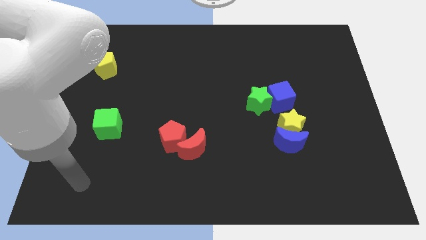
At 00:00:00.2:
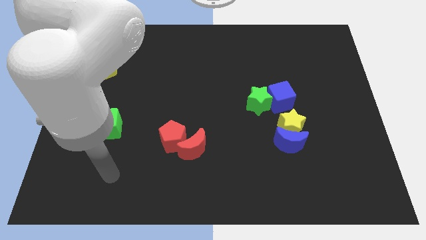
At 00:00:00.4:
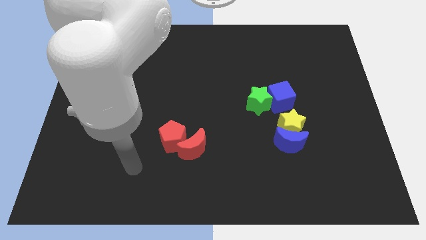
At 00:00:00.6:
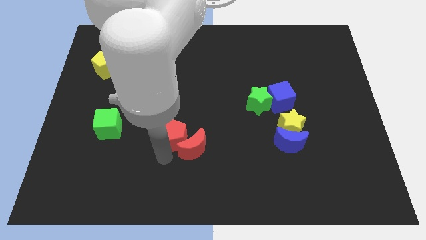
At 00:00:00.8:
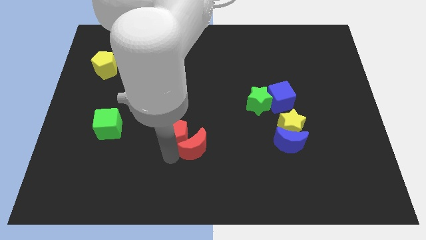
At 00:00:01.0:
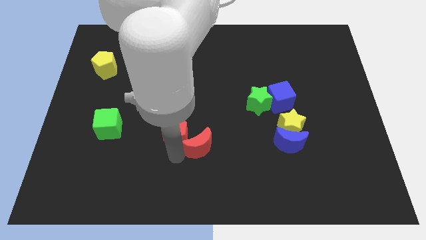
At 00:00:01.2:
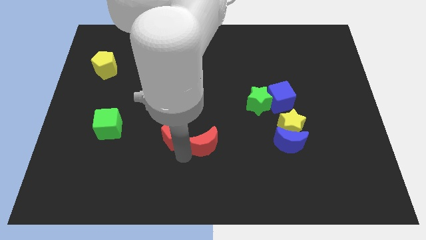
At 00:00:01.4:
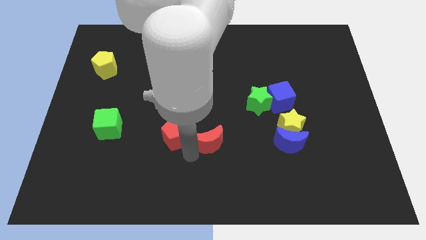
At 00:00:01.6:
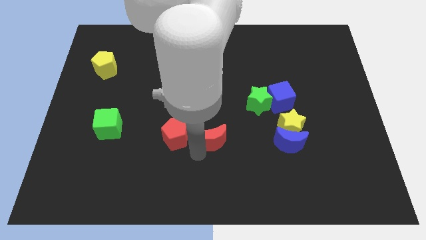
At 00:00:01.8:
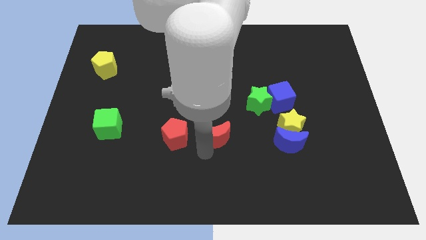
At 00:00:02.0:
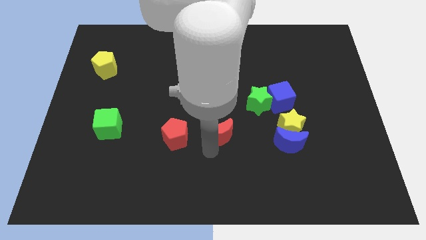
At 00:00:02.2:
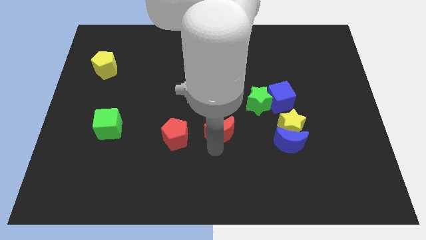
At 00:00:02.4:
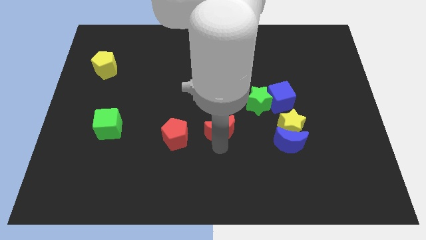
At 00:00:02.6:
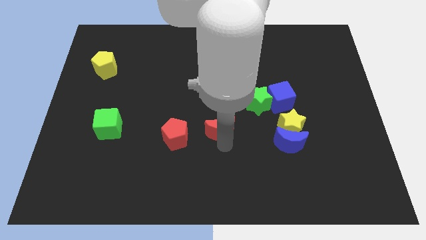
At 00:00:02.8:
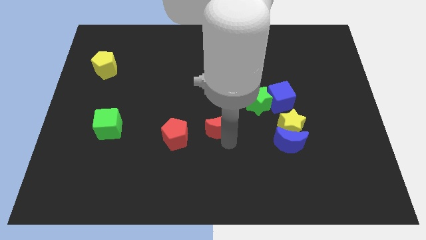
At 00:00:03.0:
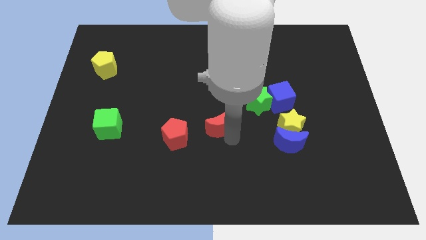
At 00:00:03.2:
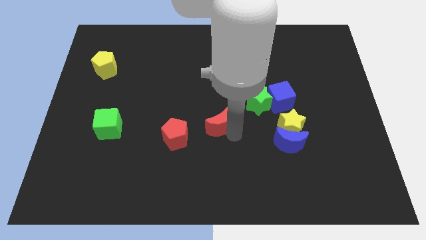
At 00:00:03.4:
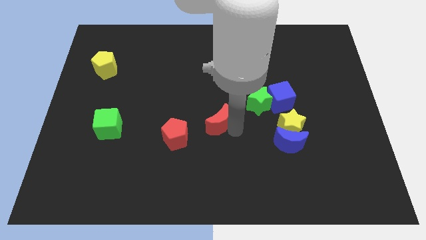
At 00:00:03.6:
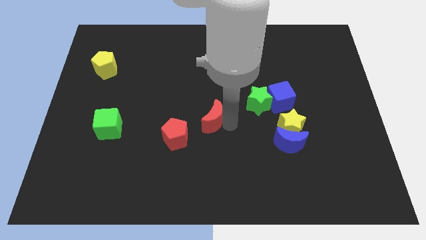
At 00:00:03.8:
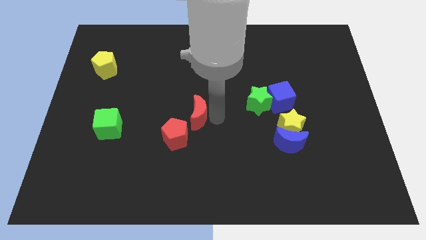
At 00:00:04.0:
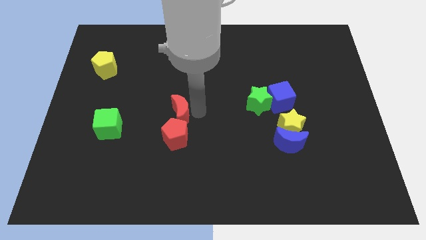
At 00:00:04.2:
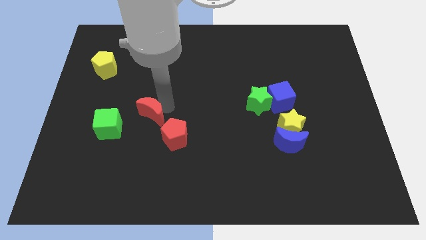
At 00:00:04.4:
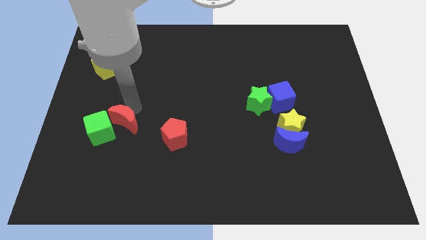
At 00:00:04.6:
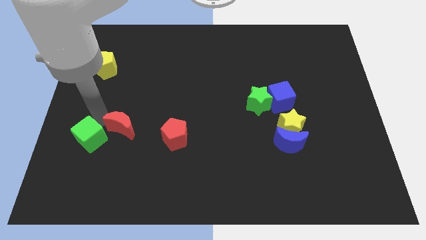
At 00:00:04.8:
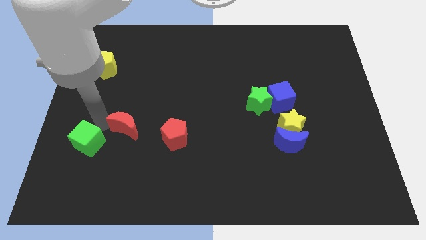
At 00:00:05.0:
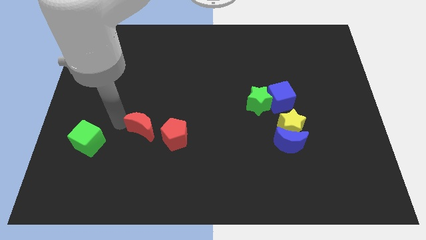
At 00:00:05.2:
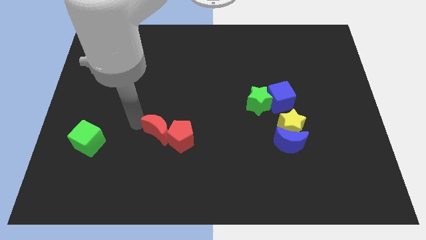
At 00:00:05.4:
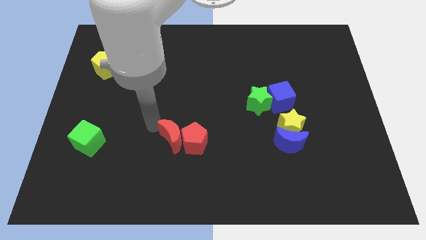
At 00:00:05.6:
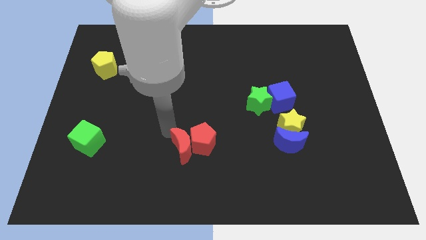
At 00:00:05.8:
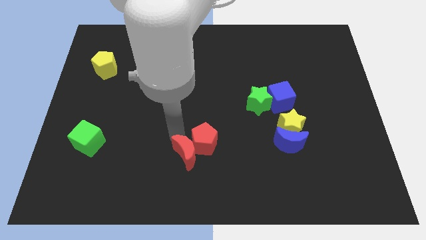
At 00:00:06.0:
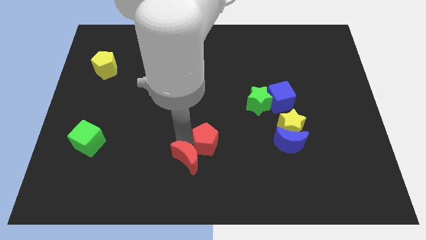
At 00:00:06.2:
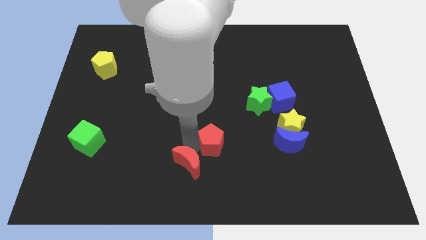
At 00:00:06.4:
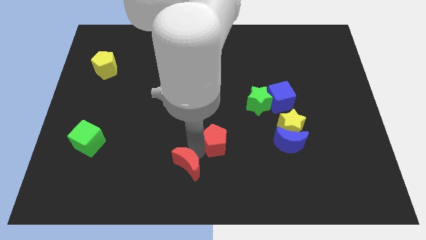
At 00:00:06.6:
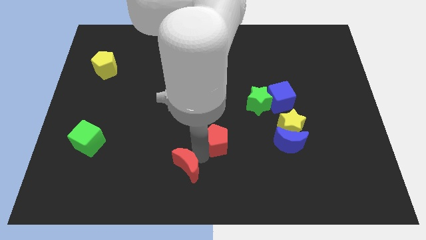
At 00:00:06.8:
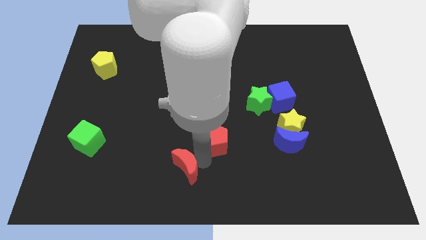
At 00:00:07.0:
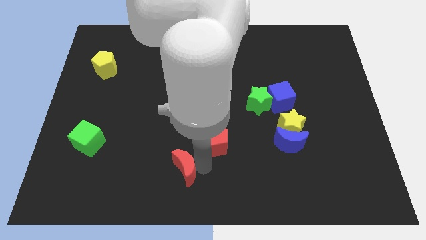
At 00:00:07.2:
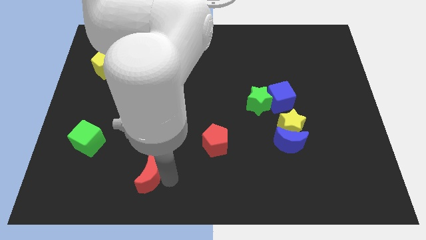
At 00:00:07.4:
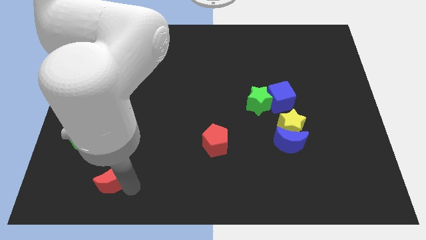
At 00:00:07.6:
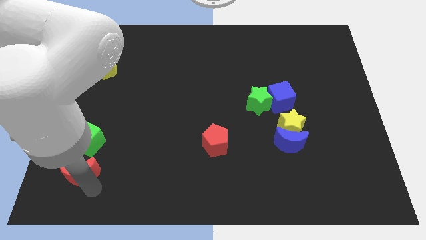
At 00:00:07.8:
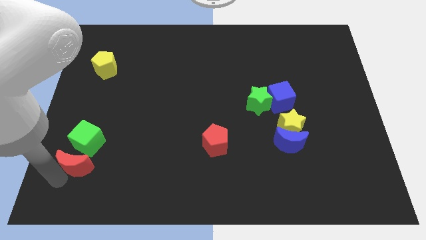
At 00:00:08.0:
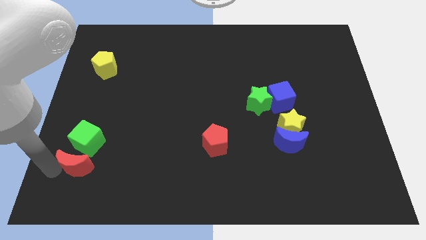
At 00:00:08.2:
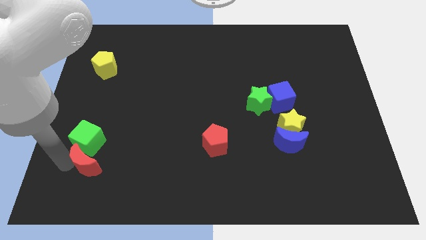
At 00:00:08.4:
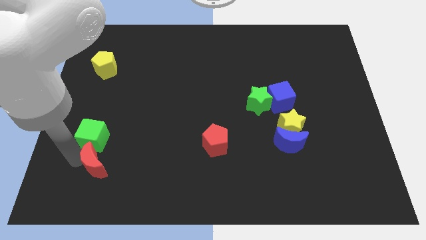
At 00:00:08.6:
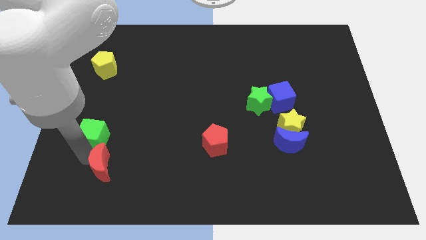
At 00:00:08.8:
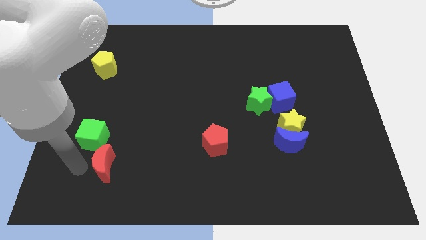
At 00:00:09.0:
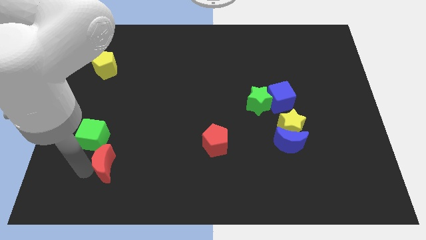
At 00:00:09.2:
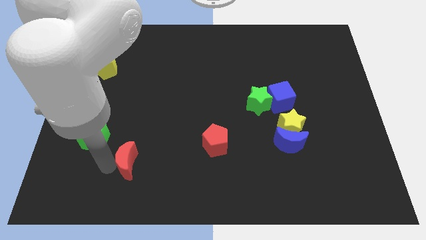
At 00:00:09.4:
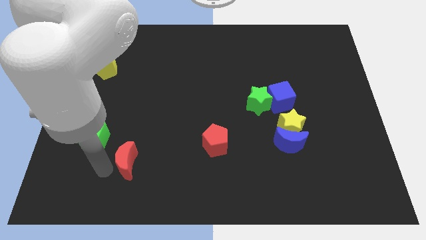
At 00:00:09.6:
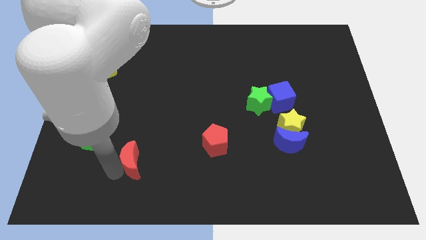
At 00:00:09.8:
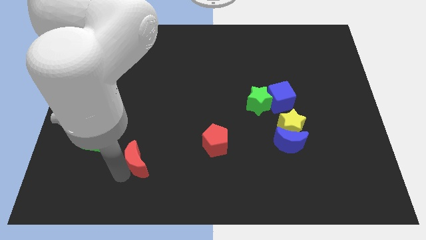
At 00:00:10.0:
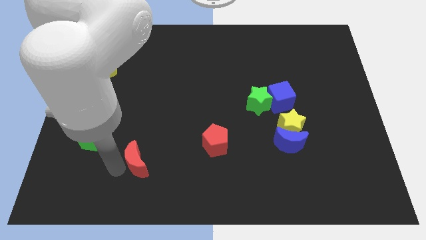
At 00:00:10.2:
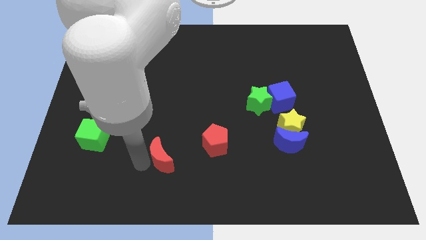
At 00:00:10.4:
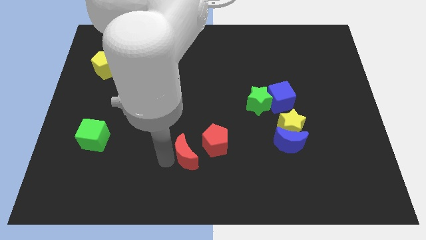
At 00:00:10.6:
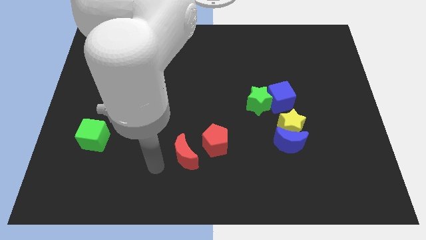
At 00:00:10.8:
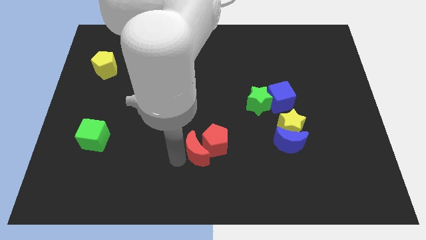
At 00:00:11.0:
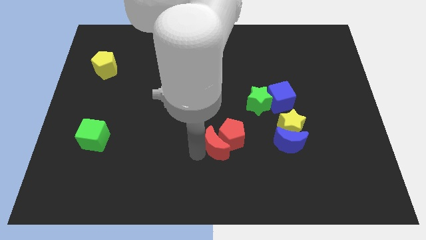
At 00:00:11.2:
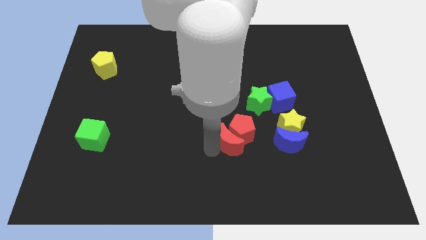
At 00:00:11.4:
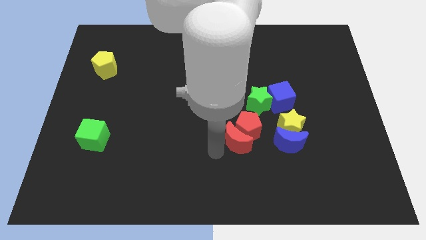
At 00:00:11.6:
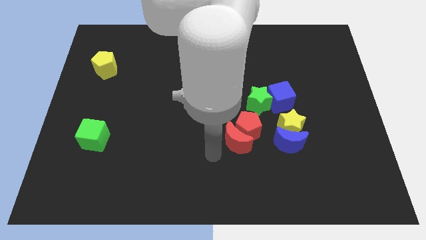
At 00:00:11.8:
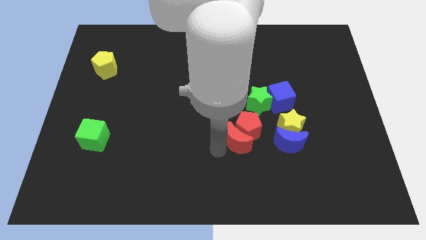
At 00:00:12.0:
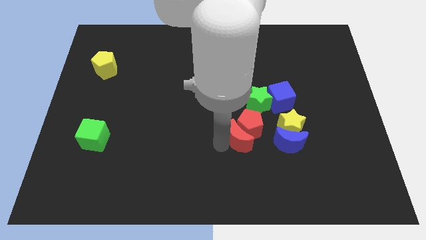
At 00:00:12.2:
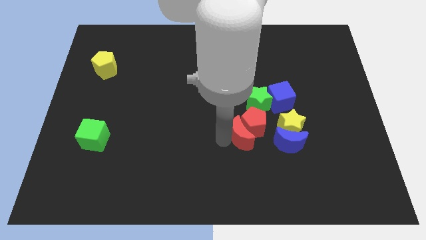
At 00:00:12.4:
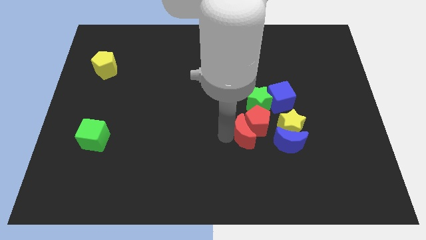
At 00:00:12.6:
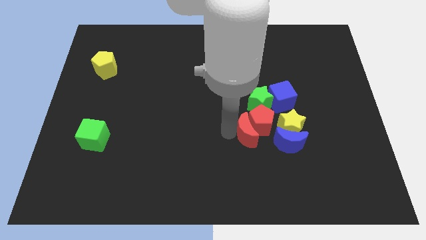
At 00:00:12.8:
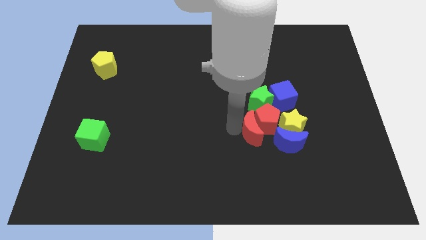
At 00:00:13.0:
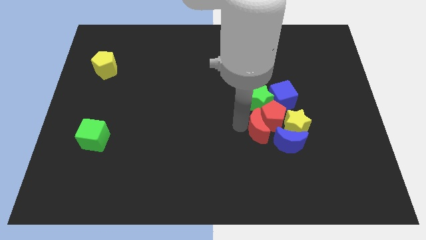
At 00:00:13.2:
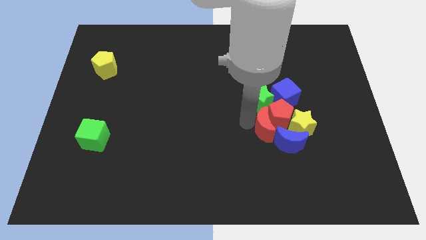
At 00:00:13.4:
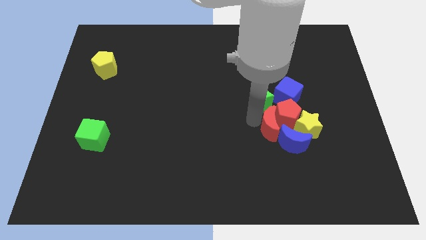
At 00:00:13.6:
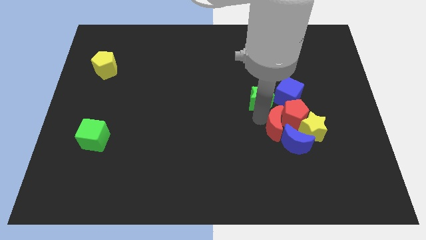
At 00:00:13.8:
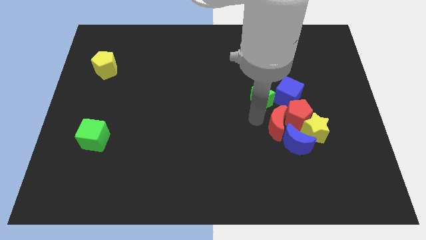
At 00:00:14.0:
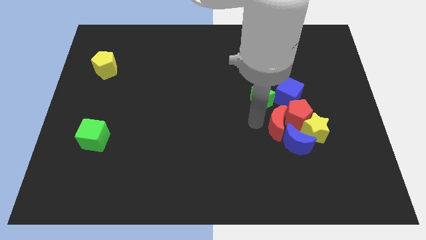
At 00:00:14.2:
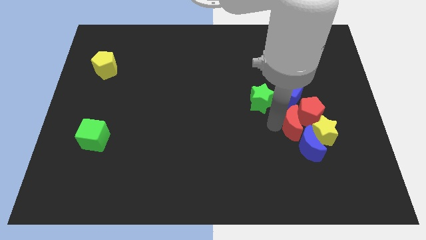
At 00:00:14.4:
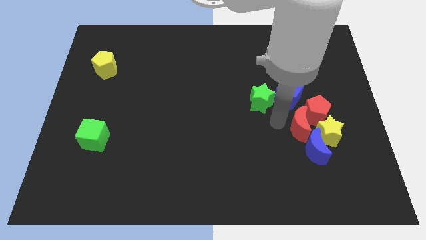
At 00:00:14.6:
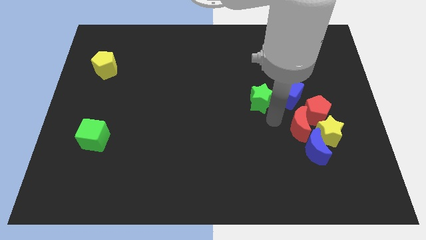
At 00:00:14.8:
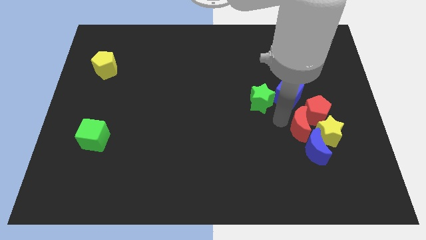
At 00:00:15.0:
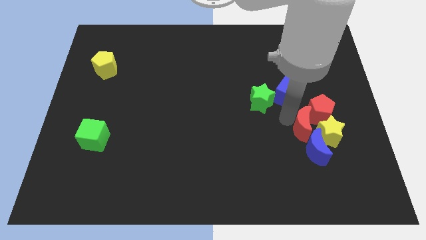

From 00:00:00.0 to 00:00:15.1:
move the red moon towards the yellow star
